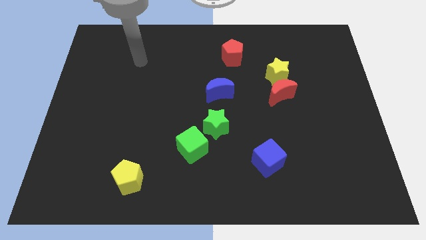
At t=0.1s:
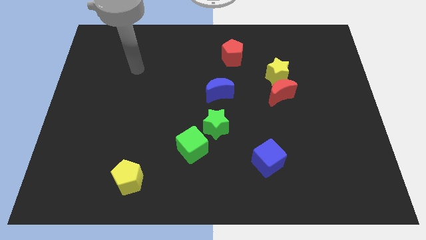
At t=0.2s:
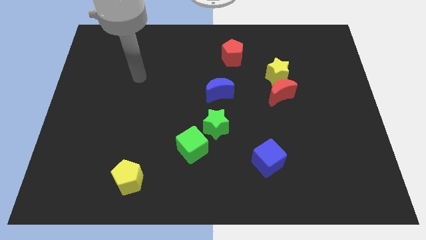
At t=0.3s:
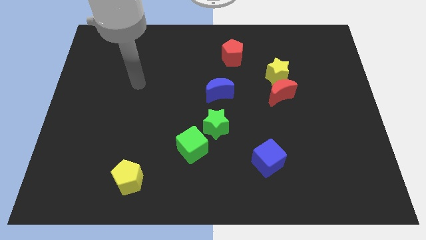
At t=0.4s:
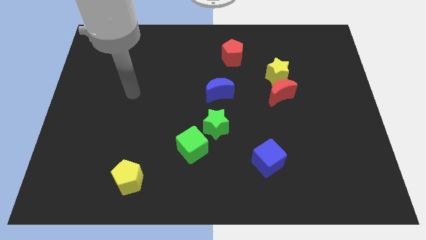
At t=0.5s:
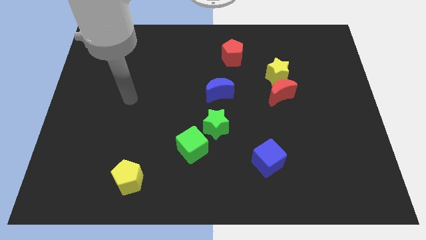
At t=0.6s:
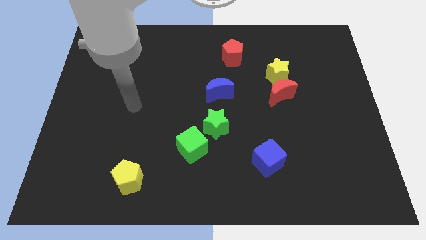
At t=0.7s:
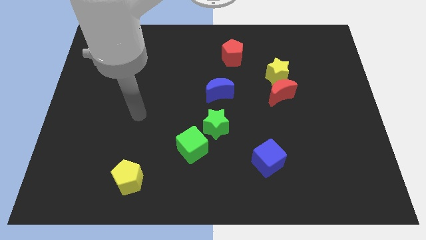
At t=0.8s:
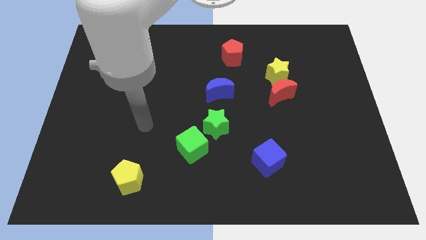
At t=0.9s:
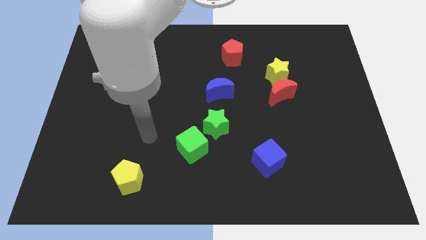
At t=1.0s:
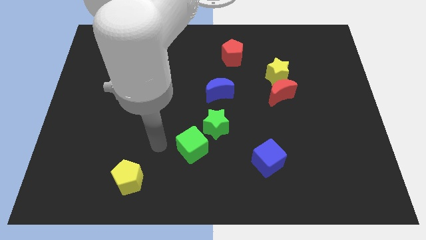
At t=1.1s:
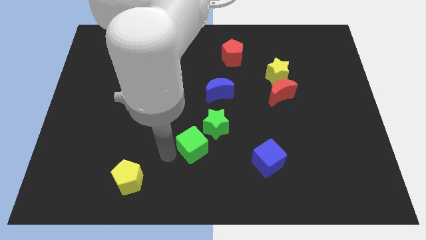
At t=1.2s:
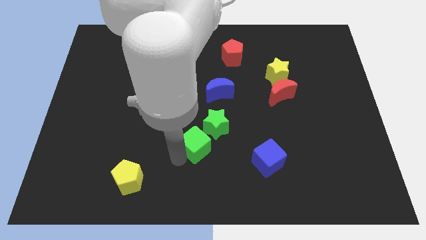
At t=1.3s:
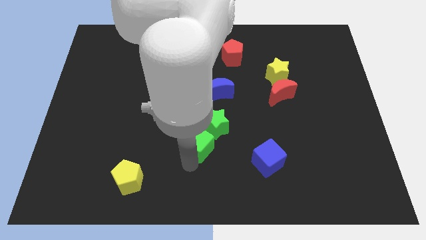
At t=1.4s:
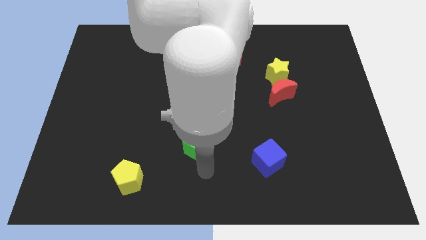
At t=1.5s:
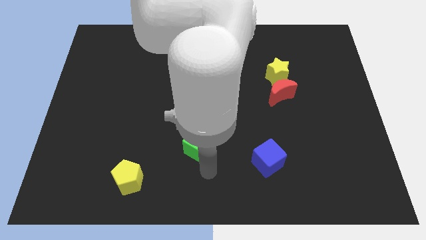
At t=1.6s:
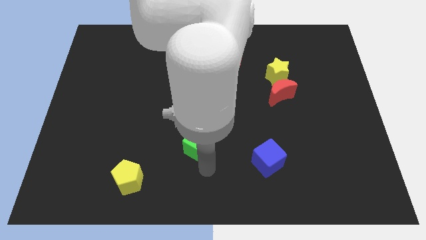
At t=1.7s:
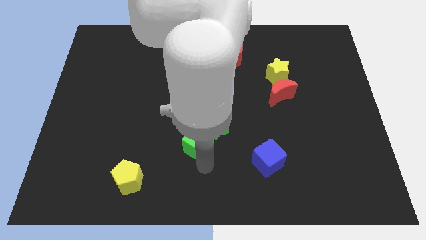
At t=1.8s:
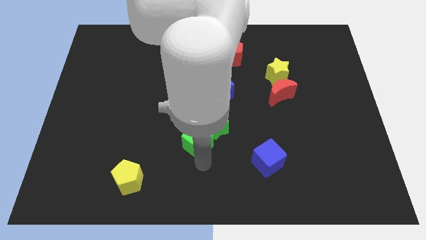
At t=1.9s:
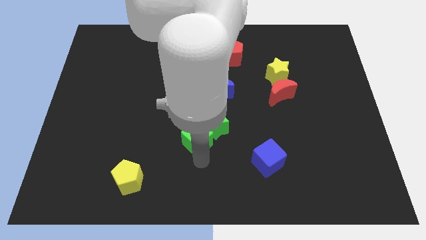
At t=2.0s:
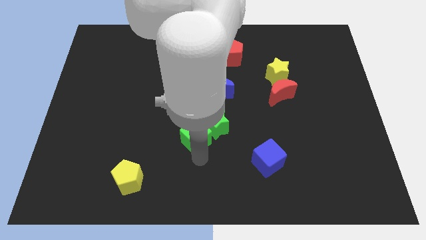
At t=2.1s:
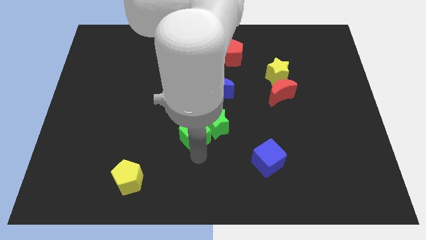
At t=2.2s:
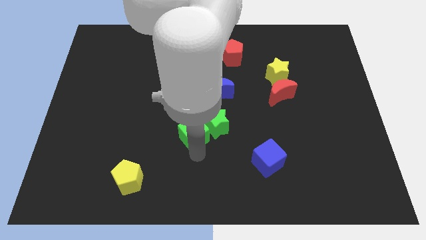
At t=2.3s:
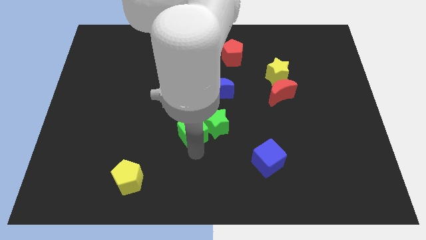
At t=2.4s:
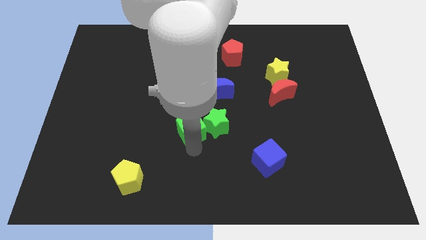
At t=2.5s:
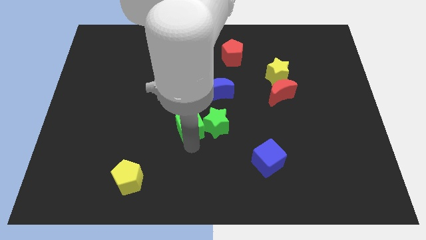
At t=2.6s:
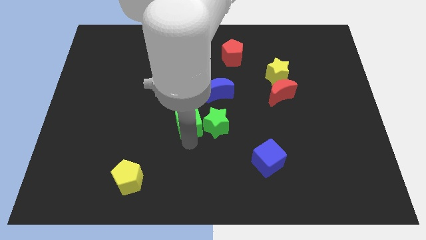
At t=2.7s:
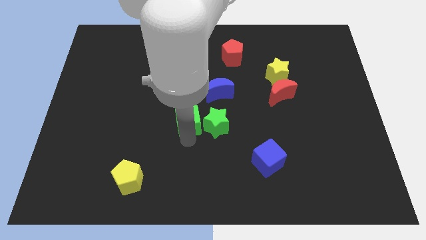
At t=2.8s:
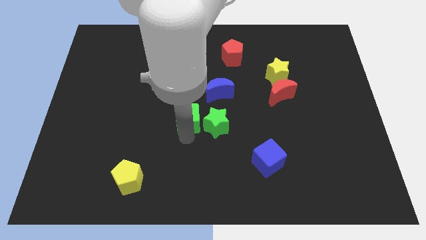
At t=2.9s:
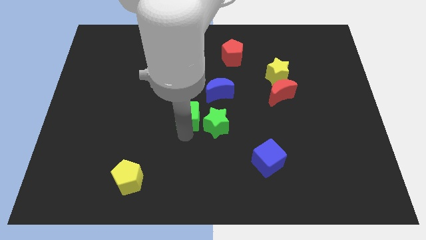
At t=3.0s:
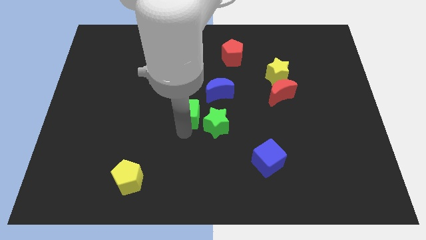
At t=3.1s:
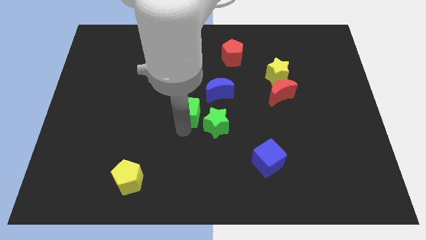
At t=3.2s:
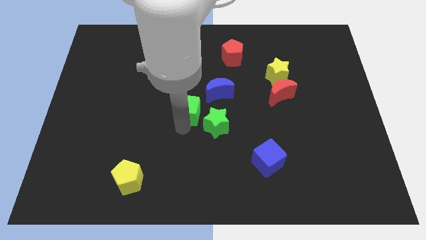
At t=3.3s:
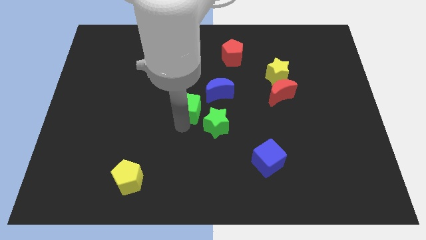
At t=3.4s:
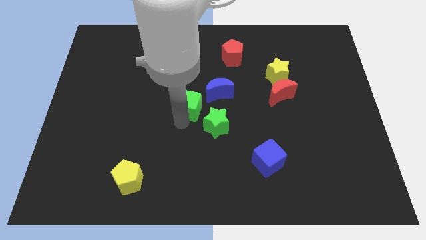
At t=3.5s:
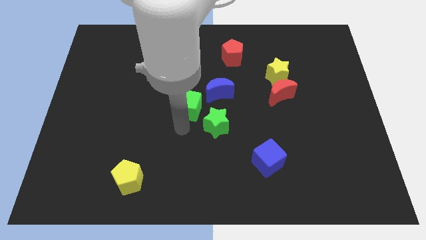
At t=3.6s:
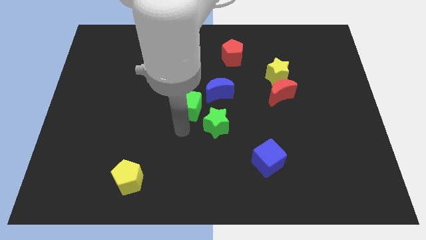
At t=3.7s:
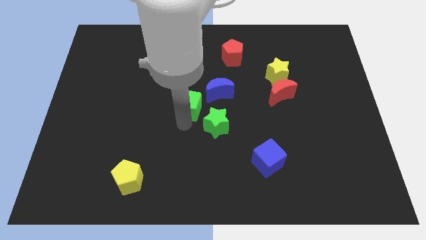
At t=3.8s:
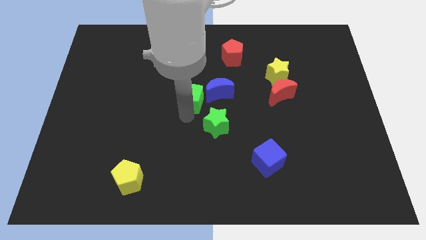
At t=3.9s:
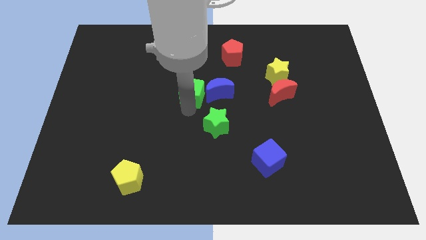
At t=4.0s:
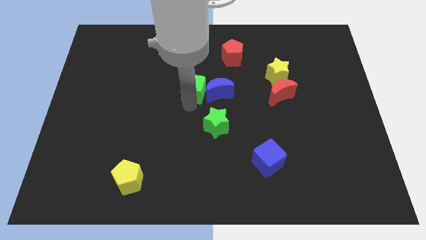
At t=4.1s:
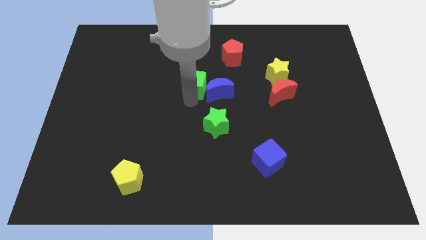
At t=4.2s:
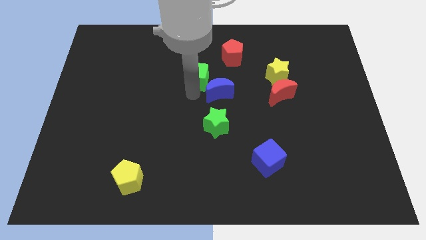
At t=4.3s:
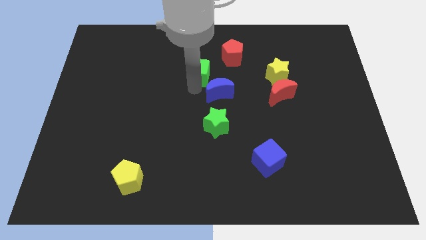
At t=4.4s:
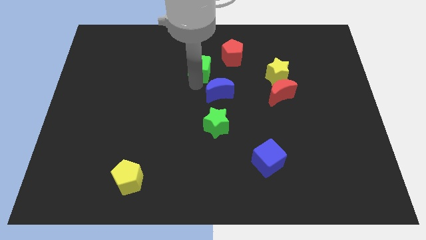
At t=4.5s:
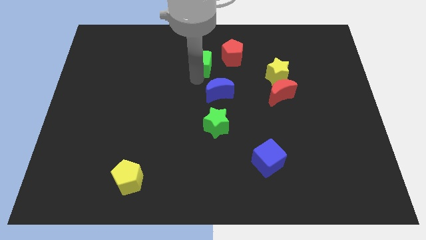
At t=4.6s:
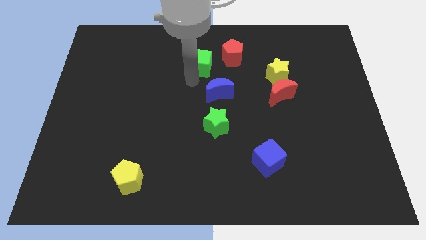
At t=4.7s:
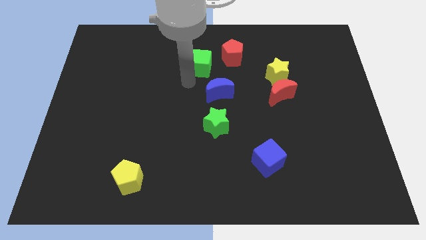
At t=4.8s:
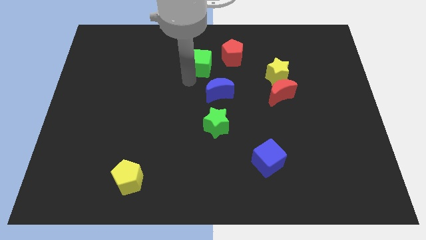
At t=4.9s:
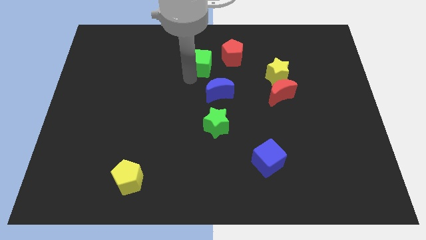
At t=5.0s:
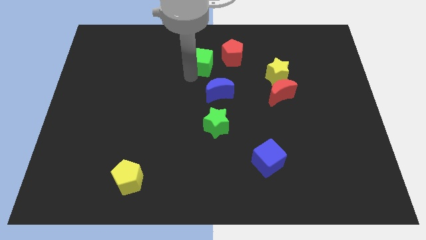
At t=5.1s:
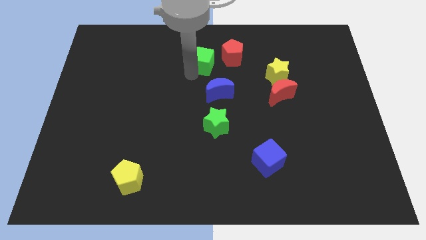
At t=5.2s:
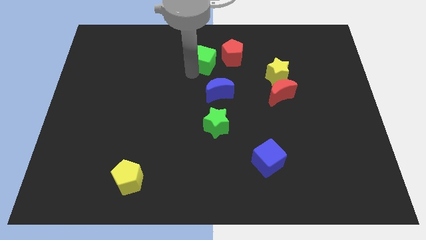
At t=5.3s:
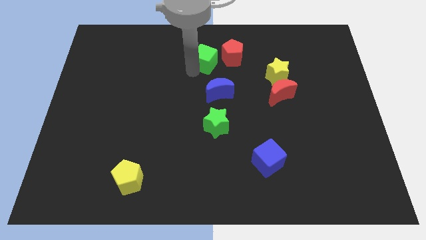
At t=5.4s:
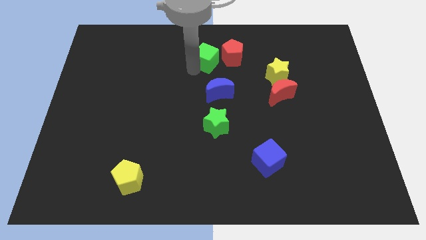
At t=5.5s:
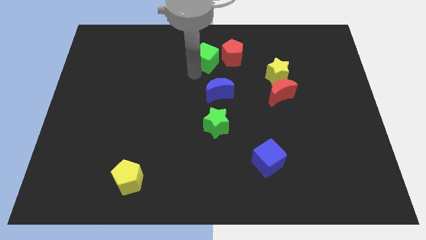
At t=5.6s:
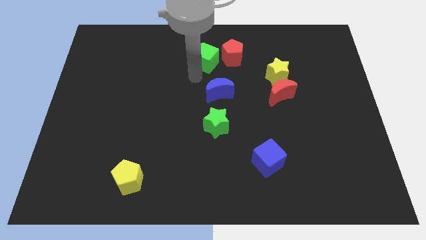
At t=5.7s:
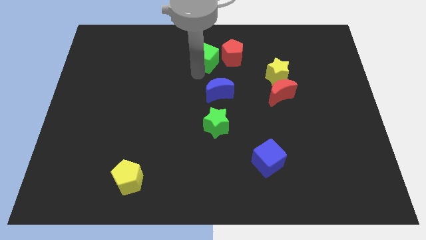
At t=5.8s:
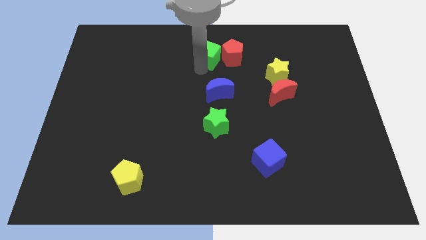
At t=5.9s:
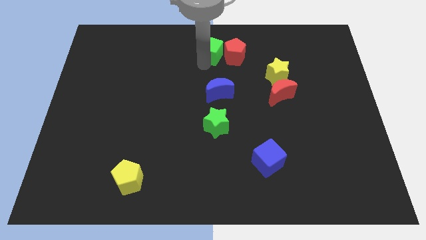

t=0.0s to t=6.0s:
move the green cube to the top side
